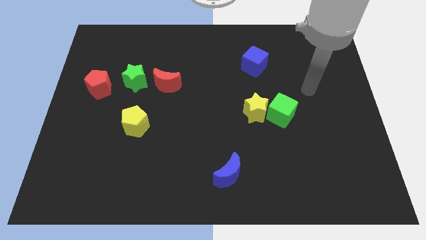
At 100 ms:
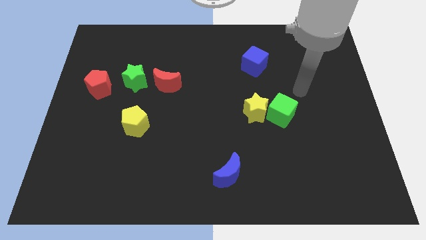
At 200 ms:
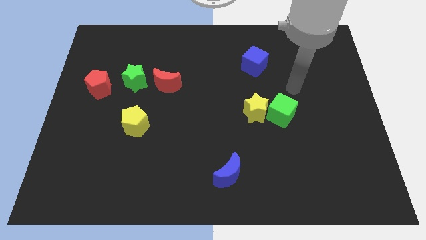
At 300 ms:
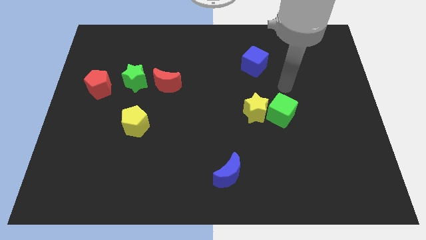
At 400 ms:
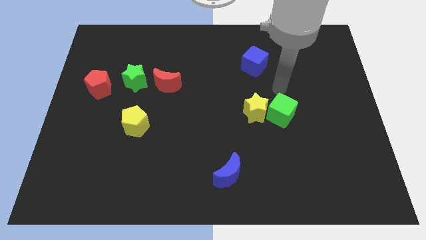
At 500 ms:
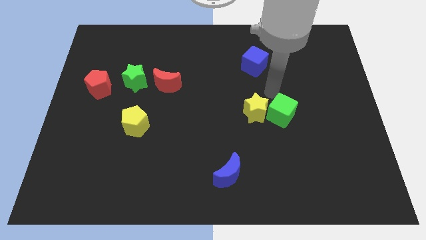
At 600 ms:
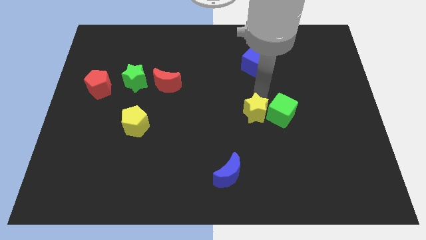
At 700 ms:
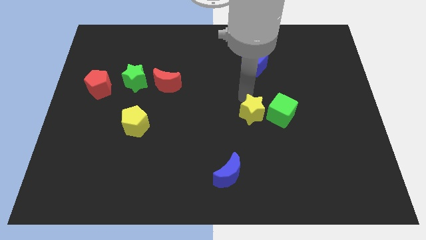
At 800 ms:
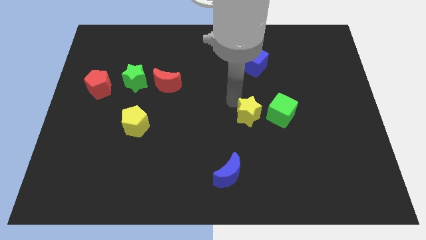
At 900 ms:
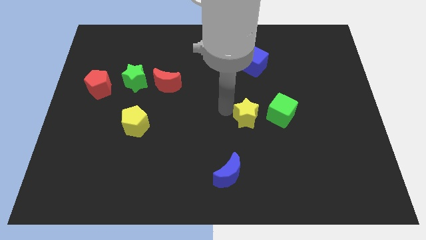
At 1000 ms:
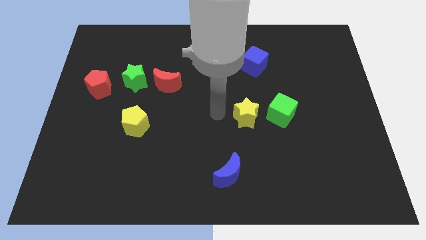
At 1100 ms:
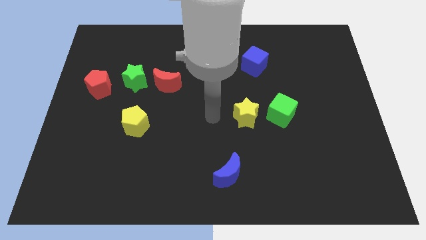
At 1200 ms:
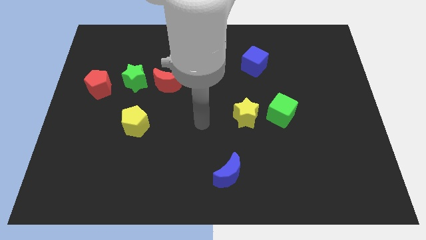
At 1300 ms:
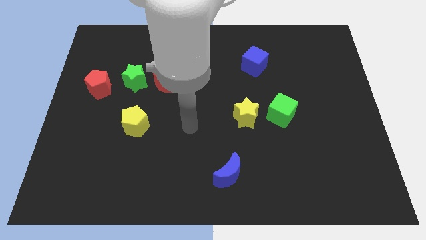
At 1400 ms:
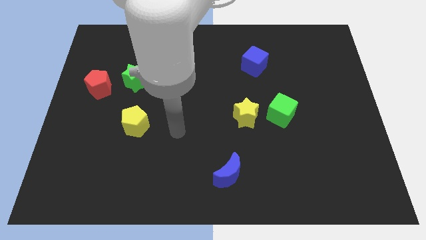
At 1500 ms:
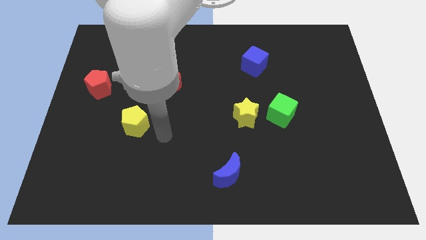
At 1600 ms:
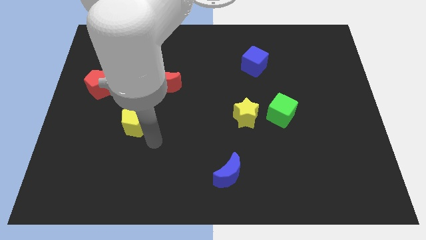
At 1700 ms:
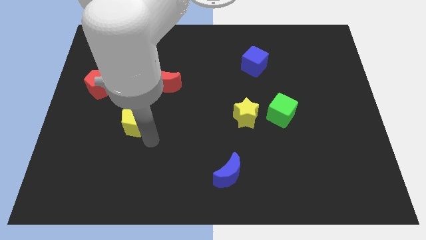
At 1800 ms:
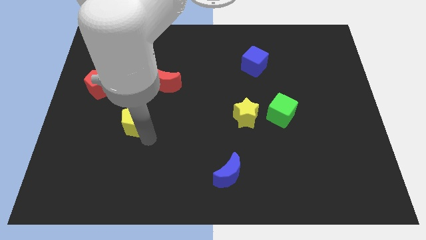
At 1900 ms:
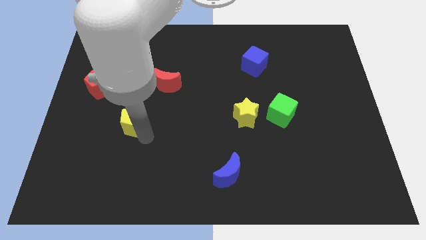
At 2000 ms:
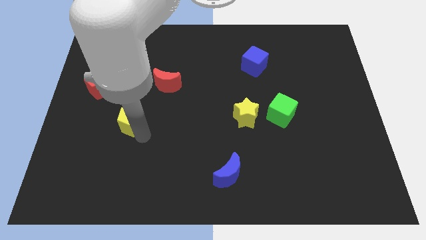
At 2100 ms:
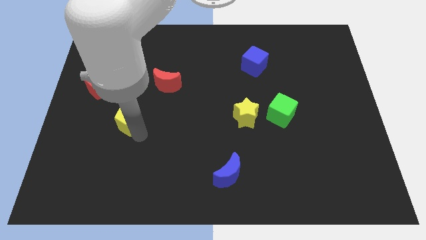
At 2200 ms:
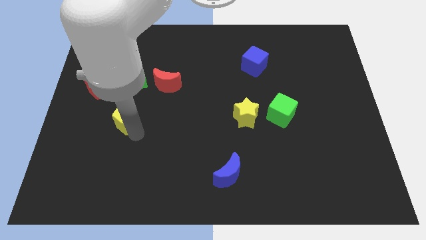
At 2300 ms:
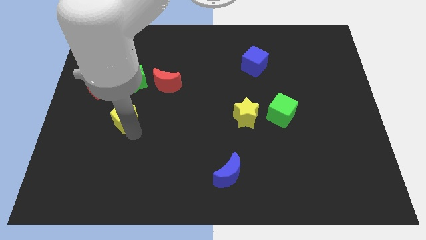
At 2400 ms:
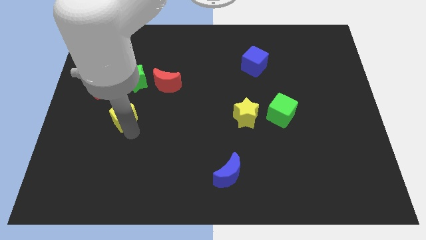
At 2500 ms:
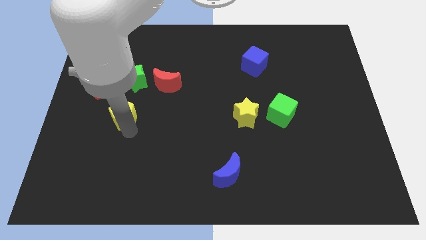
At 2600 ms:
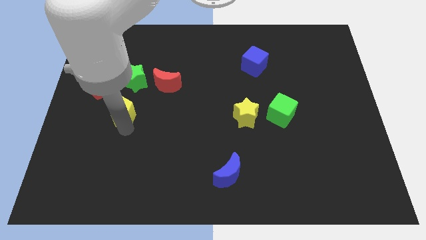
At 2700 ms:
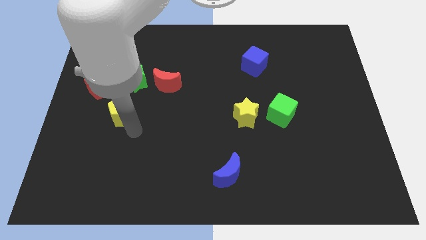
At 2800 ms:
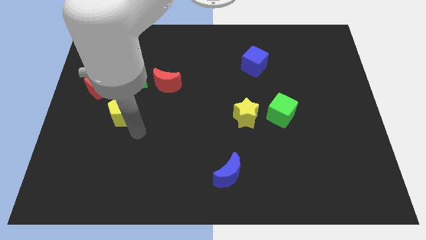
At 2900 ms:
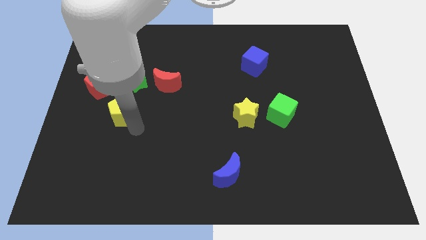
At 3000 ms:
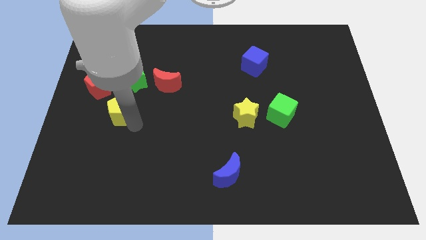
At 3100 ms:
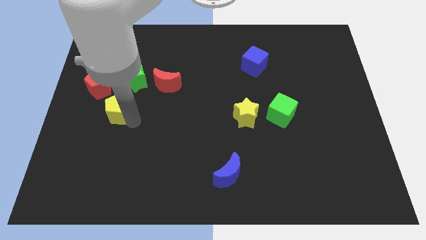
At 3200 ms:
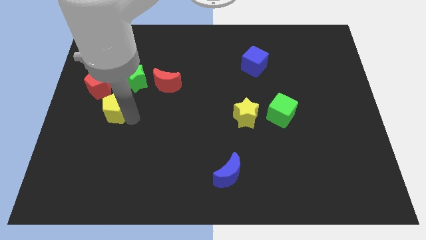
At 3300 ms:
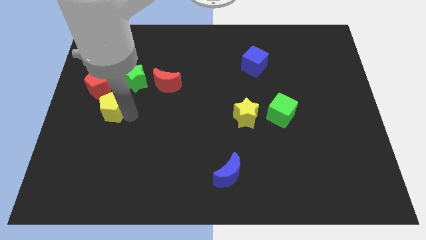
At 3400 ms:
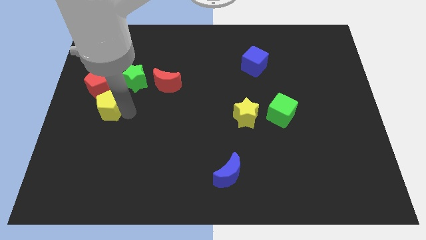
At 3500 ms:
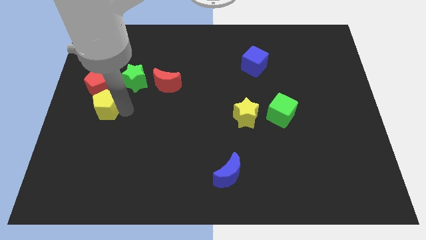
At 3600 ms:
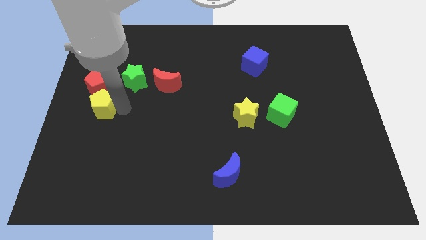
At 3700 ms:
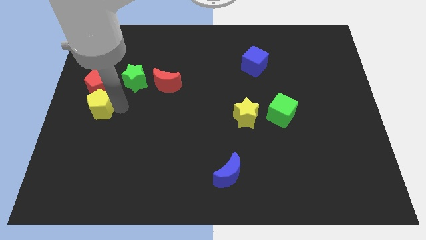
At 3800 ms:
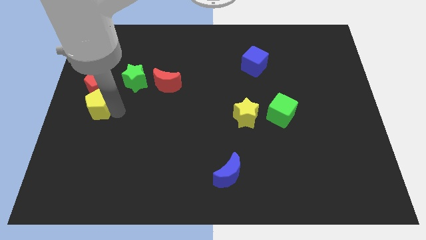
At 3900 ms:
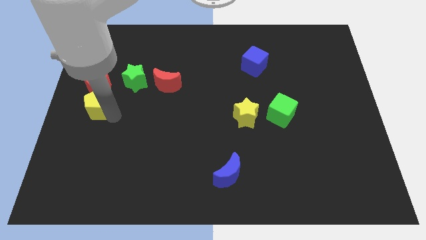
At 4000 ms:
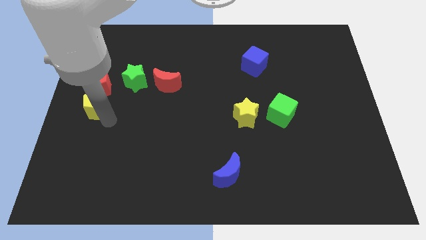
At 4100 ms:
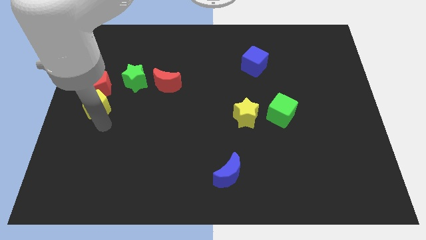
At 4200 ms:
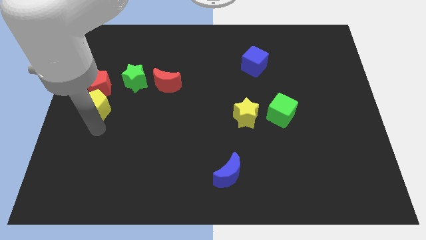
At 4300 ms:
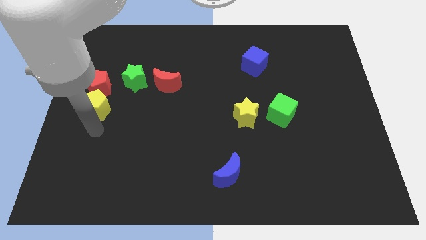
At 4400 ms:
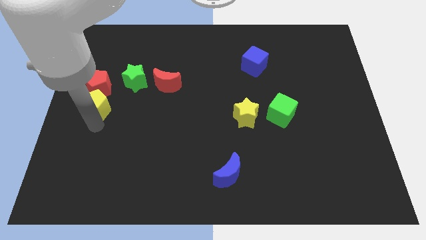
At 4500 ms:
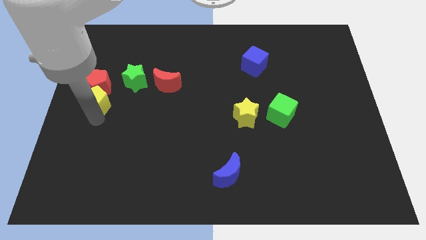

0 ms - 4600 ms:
push the yellow pentagon close to the red pentagon

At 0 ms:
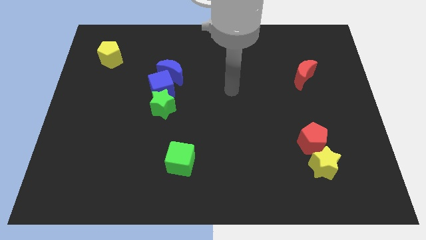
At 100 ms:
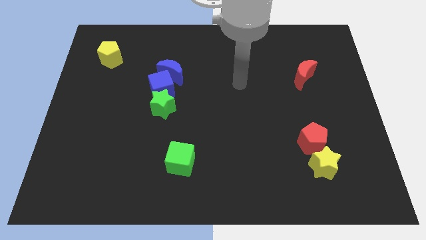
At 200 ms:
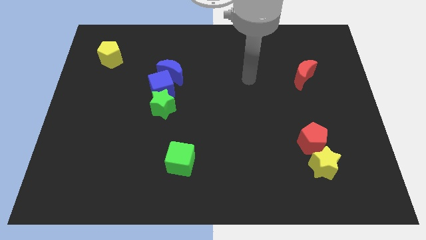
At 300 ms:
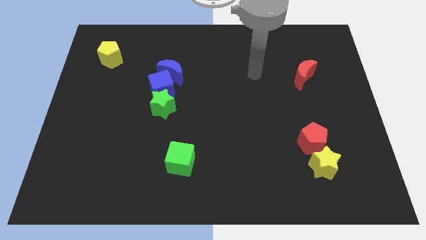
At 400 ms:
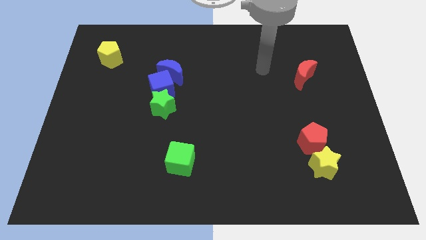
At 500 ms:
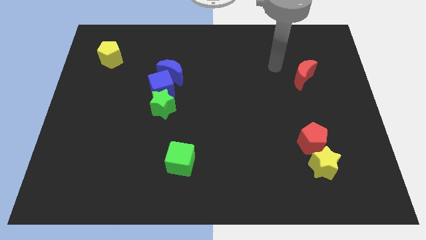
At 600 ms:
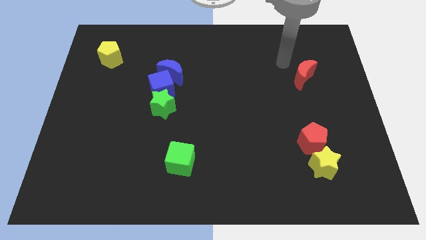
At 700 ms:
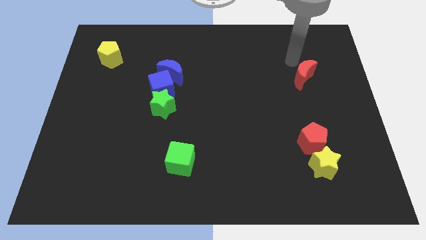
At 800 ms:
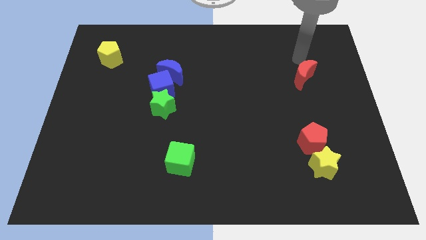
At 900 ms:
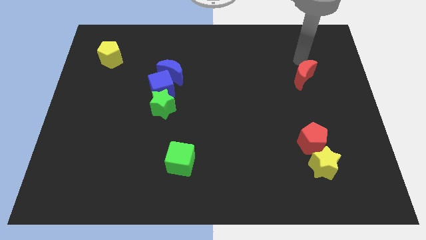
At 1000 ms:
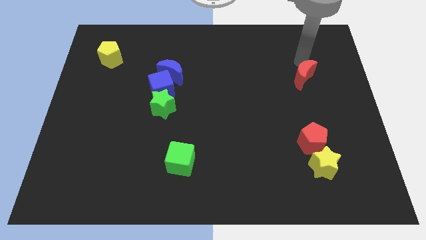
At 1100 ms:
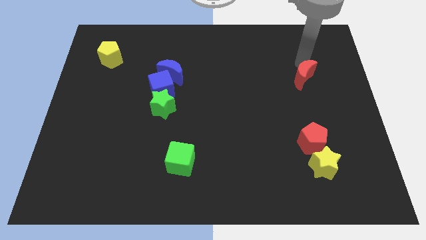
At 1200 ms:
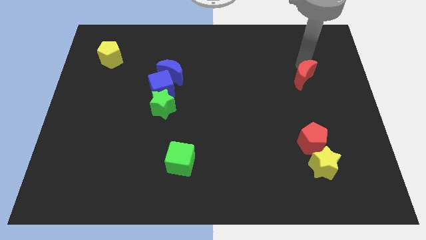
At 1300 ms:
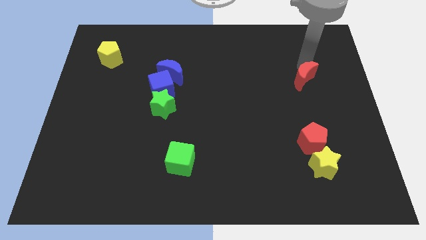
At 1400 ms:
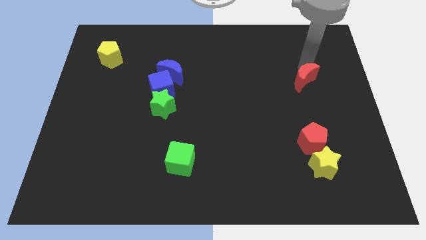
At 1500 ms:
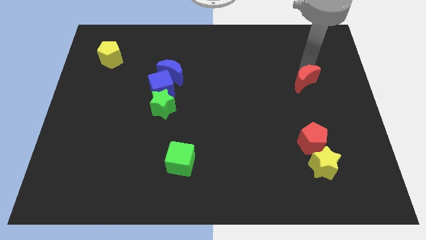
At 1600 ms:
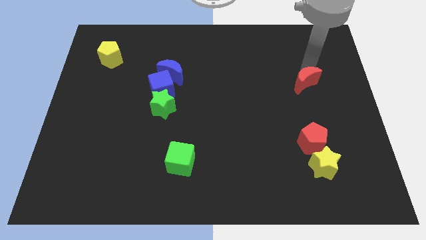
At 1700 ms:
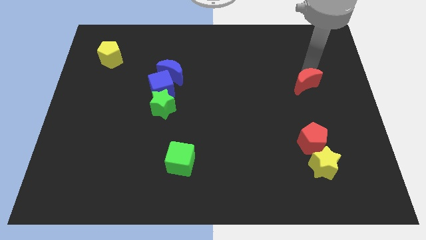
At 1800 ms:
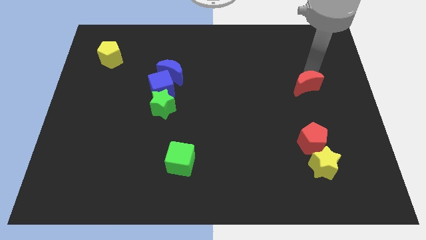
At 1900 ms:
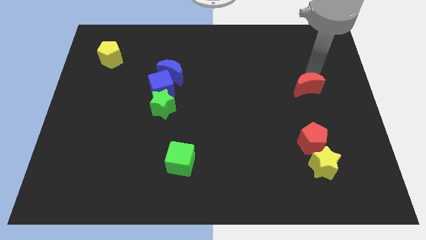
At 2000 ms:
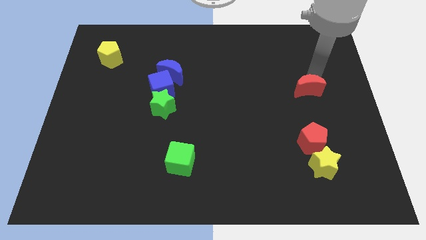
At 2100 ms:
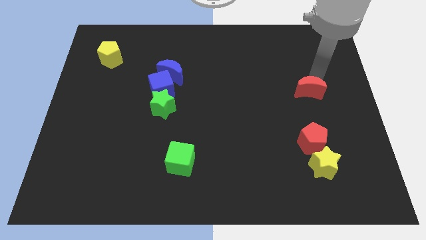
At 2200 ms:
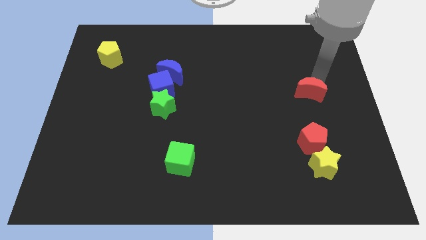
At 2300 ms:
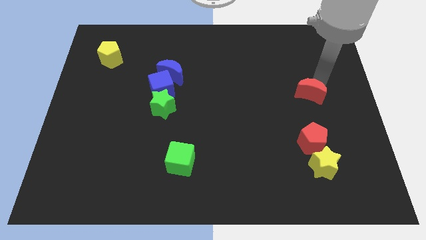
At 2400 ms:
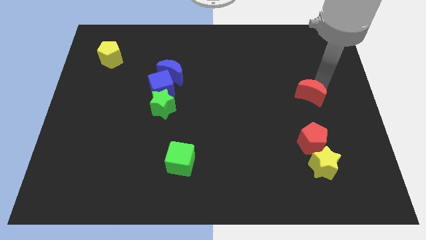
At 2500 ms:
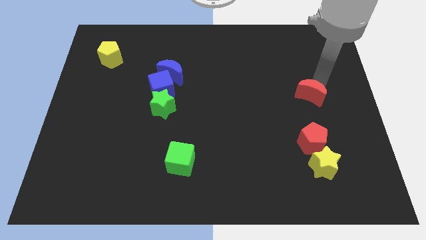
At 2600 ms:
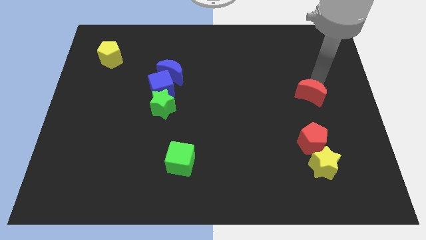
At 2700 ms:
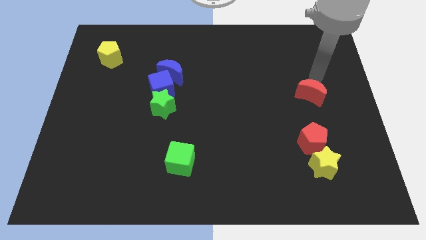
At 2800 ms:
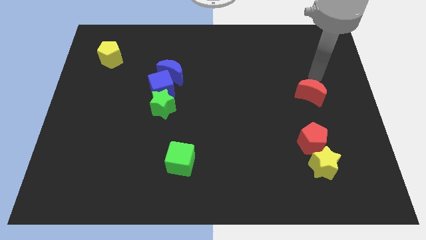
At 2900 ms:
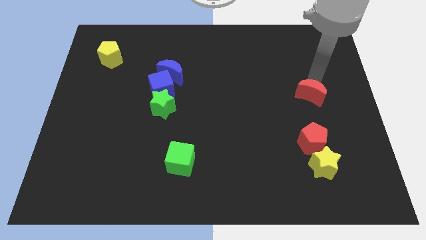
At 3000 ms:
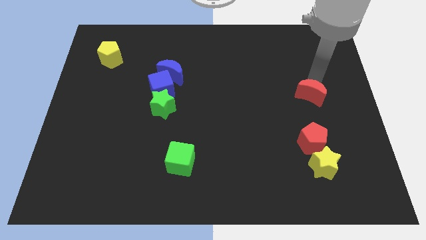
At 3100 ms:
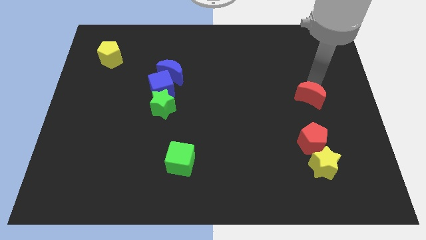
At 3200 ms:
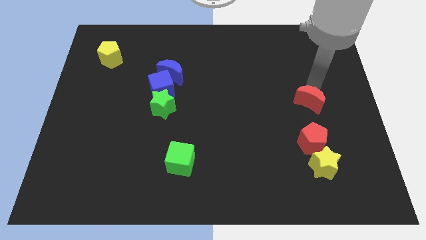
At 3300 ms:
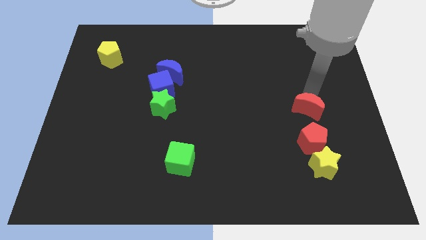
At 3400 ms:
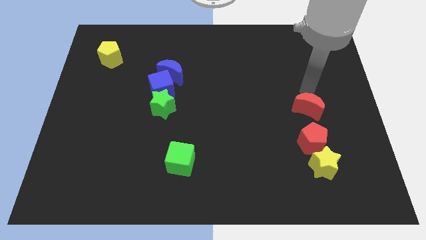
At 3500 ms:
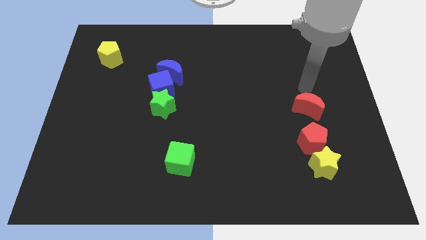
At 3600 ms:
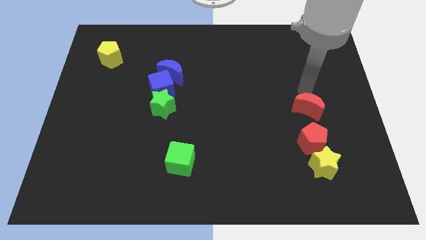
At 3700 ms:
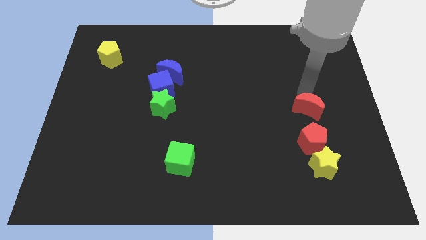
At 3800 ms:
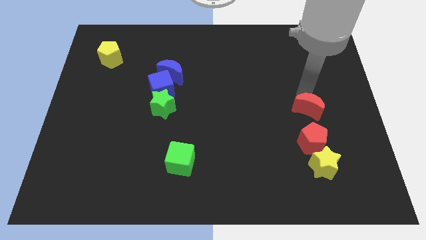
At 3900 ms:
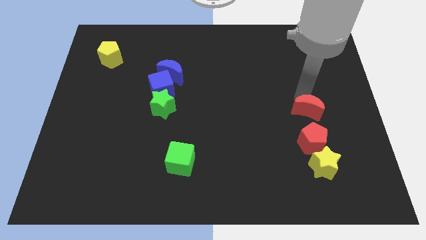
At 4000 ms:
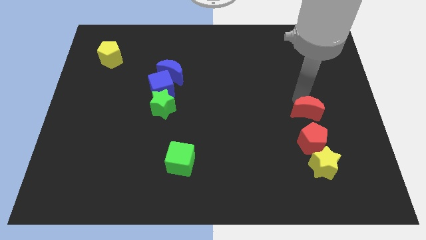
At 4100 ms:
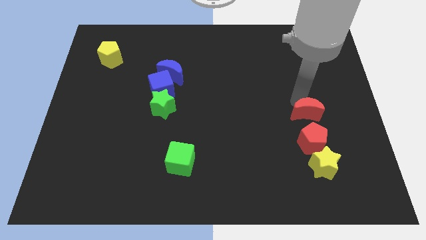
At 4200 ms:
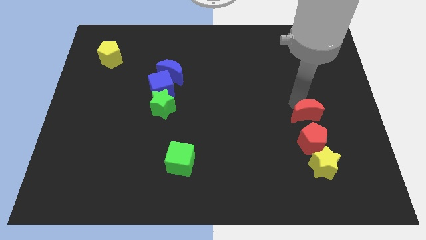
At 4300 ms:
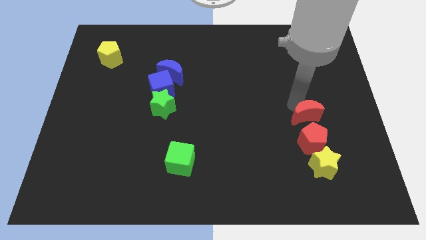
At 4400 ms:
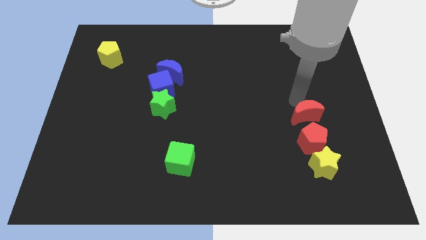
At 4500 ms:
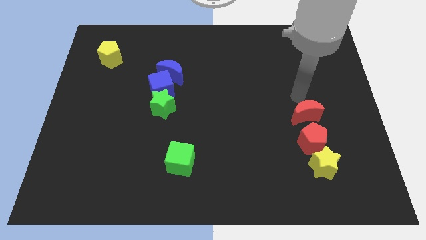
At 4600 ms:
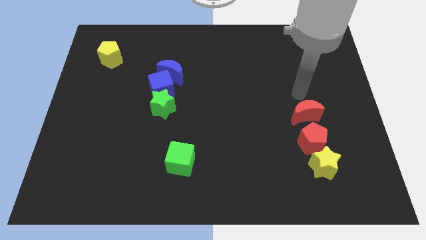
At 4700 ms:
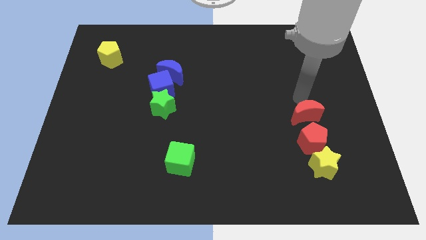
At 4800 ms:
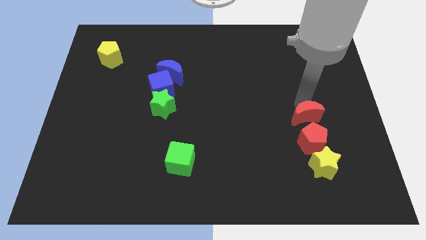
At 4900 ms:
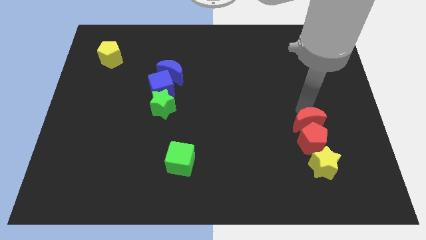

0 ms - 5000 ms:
push the red moon next to the red pentagon
